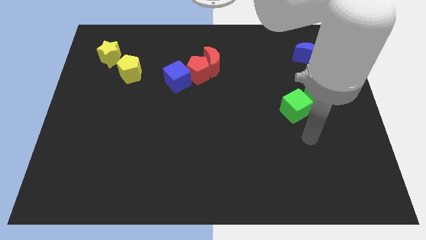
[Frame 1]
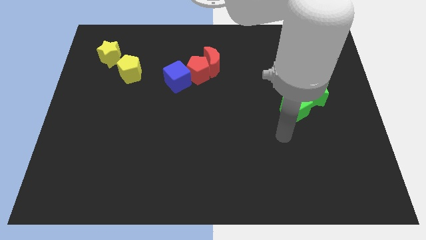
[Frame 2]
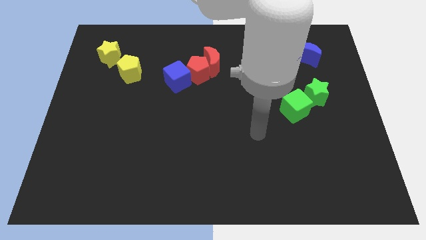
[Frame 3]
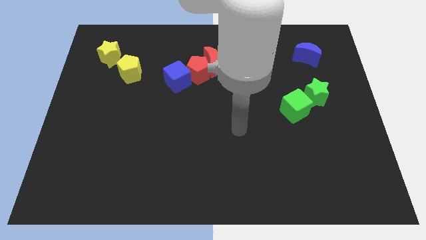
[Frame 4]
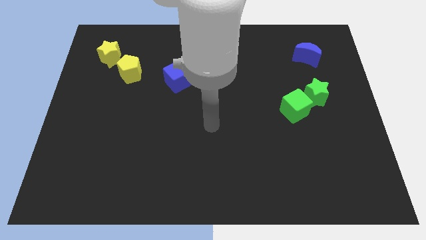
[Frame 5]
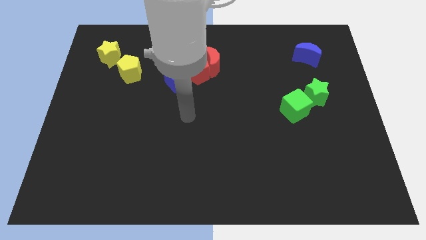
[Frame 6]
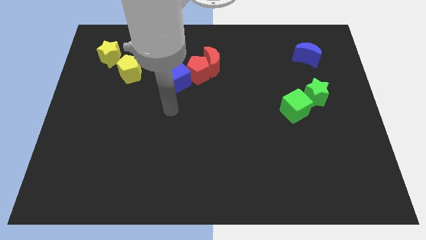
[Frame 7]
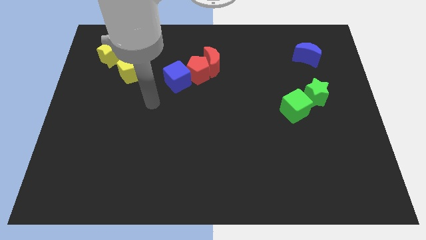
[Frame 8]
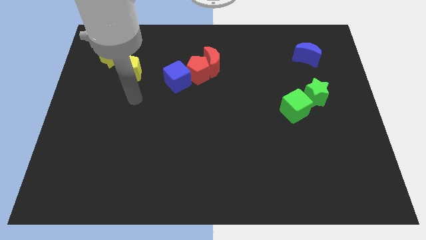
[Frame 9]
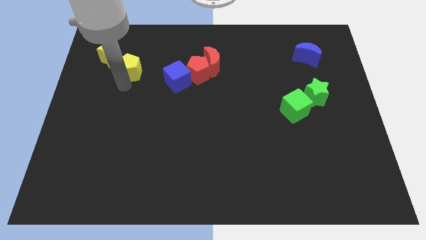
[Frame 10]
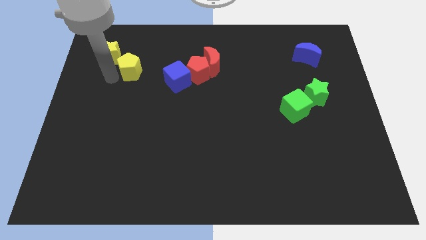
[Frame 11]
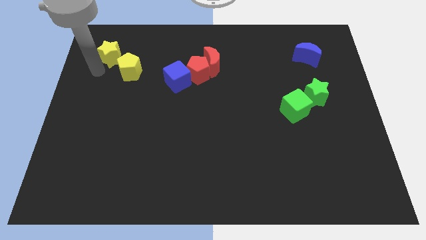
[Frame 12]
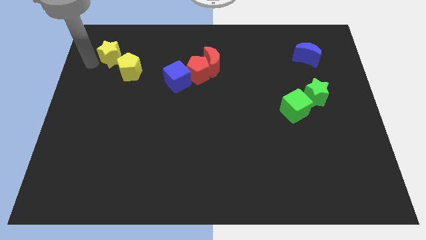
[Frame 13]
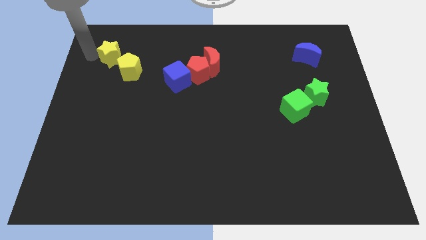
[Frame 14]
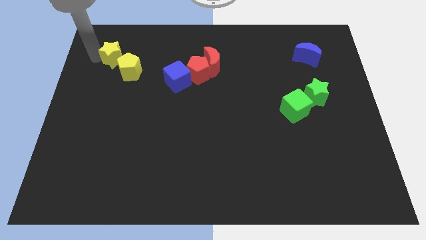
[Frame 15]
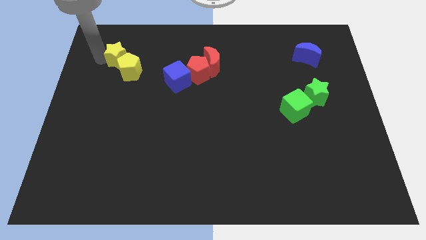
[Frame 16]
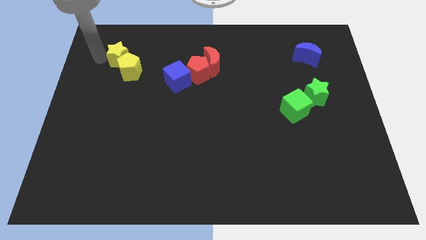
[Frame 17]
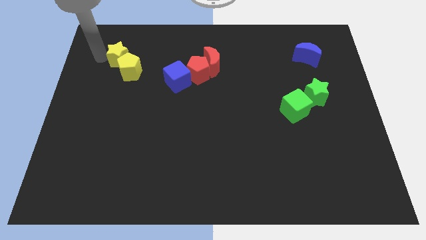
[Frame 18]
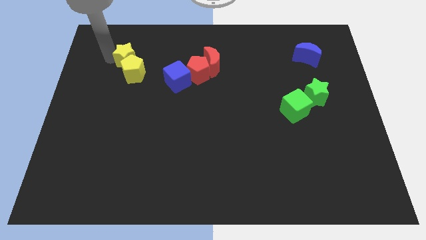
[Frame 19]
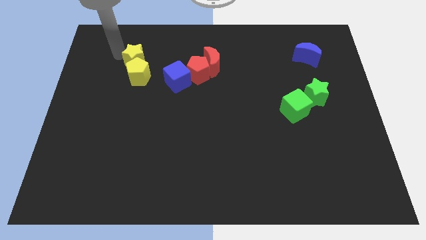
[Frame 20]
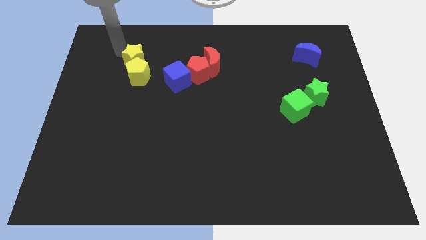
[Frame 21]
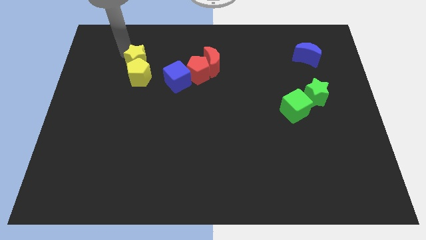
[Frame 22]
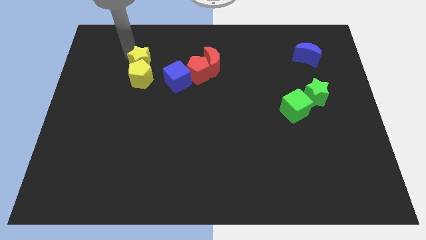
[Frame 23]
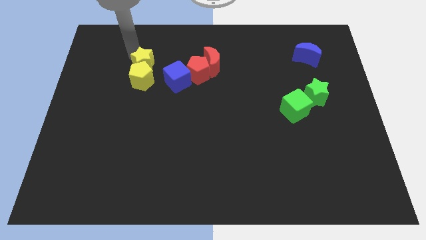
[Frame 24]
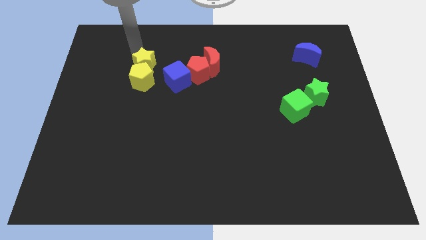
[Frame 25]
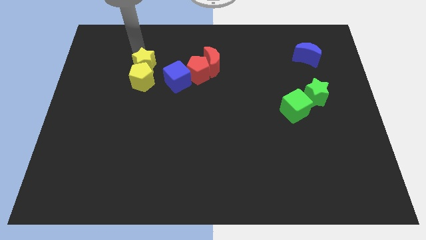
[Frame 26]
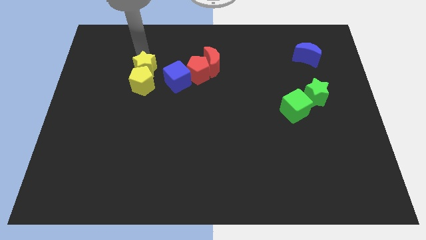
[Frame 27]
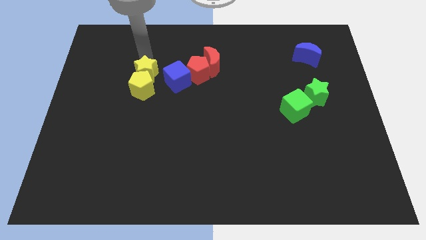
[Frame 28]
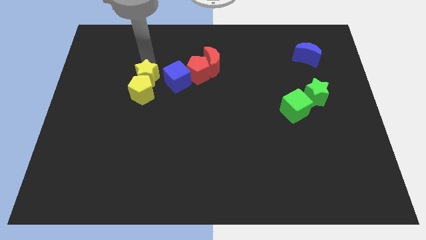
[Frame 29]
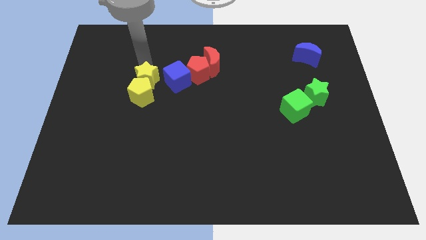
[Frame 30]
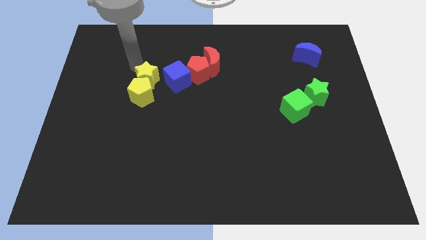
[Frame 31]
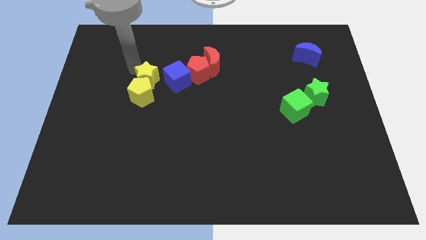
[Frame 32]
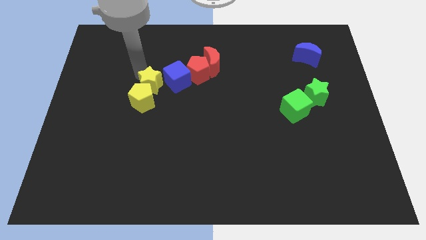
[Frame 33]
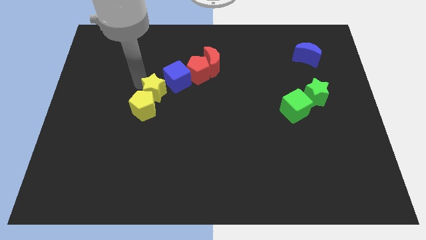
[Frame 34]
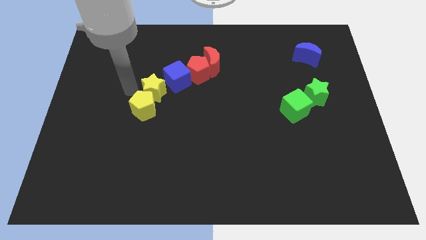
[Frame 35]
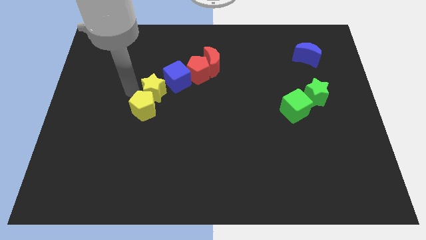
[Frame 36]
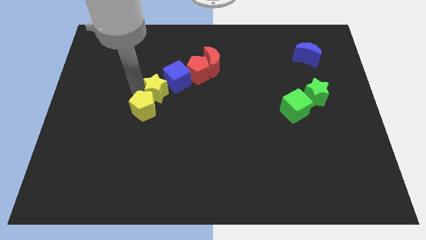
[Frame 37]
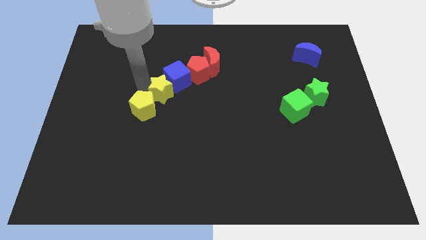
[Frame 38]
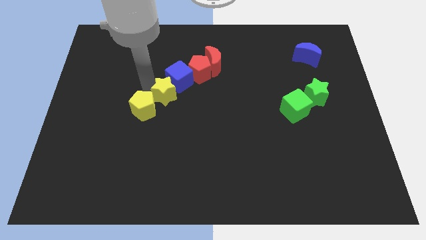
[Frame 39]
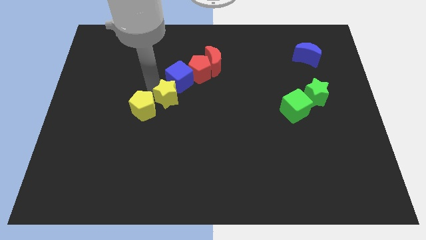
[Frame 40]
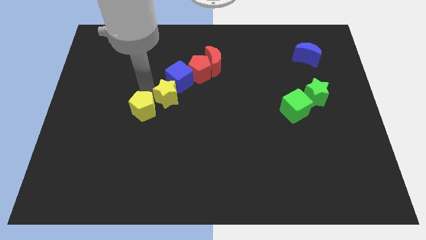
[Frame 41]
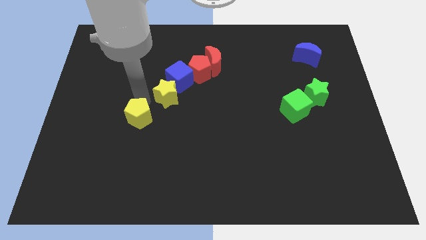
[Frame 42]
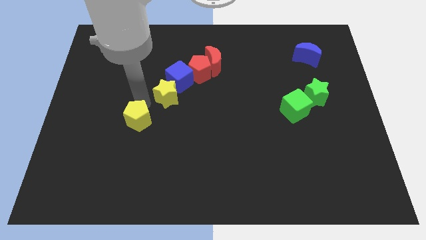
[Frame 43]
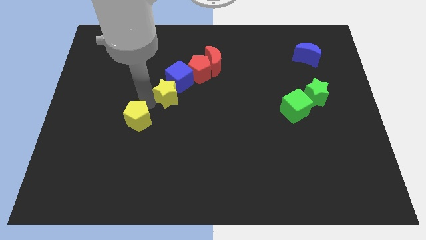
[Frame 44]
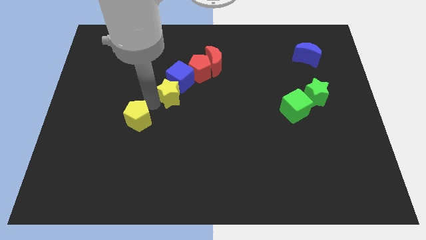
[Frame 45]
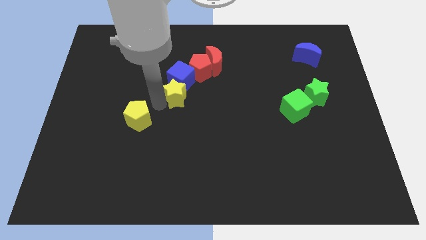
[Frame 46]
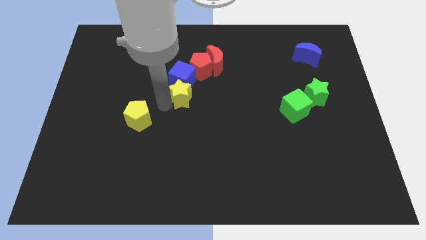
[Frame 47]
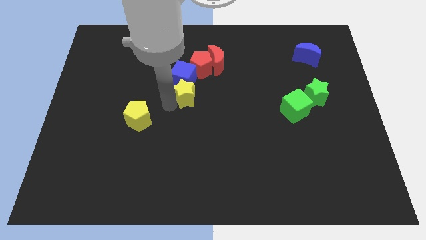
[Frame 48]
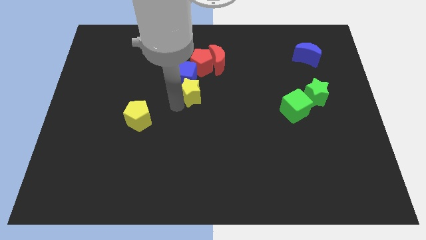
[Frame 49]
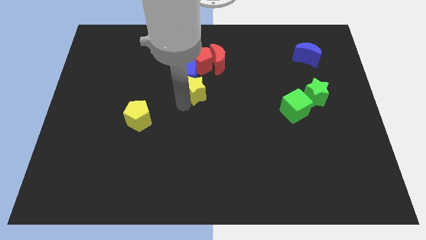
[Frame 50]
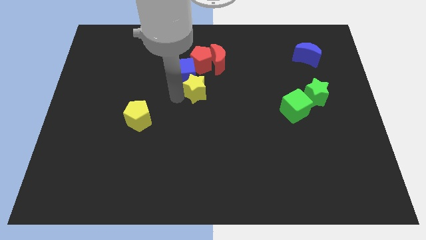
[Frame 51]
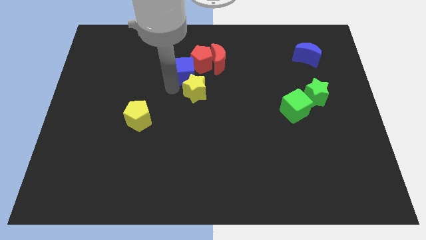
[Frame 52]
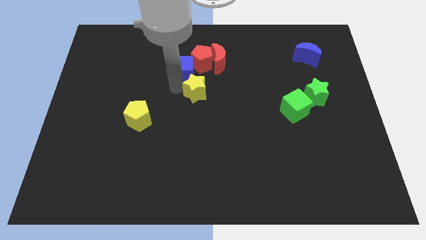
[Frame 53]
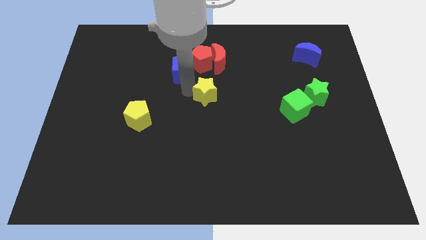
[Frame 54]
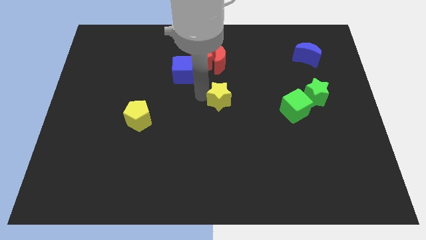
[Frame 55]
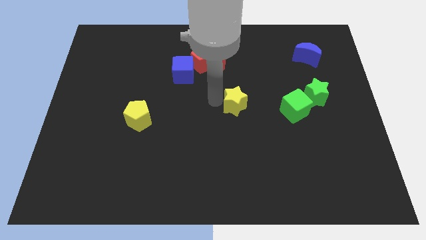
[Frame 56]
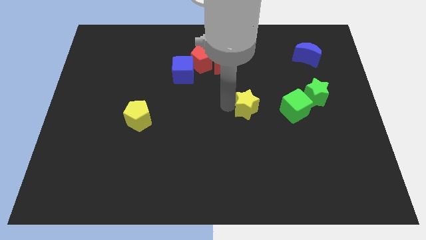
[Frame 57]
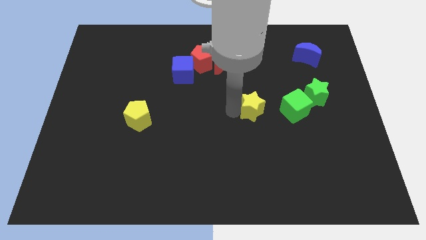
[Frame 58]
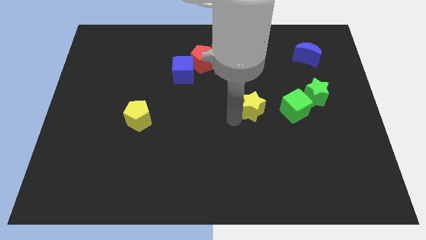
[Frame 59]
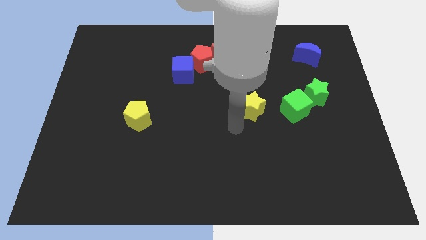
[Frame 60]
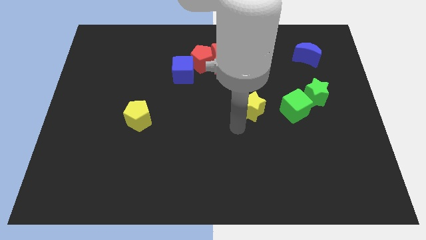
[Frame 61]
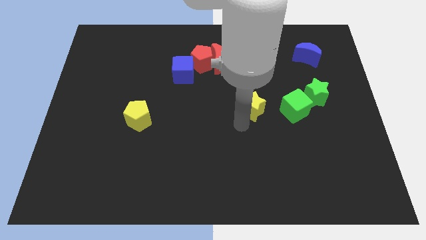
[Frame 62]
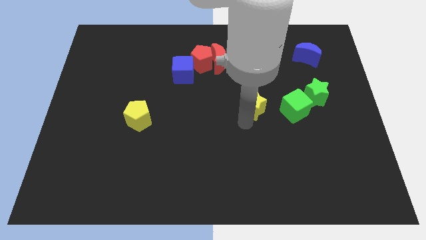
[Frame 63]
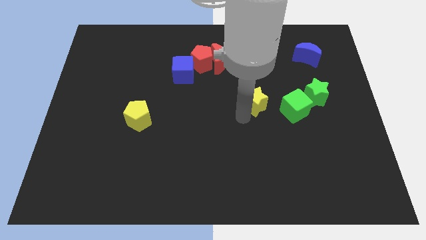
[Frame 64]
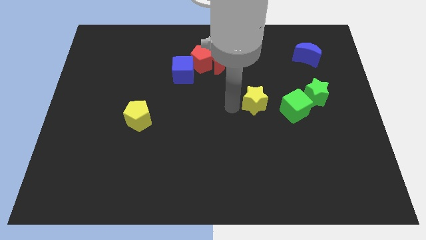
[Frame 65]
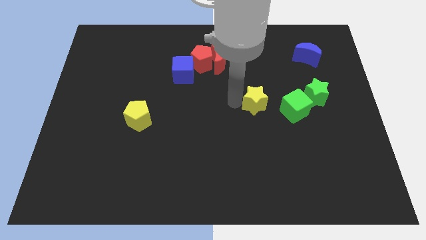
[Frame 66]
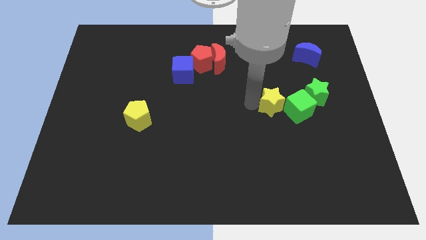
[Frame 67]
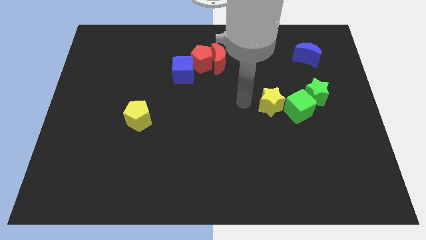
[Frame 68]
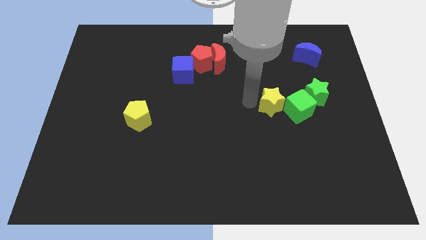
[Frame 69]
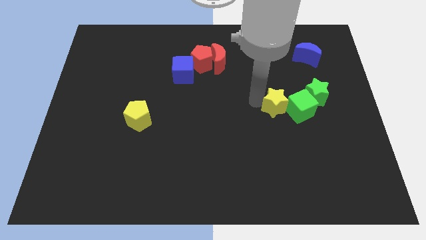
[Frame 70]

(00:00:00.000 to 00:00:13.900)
push the yellow star next to the green cube
